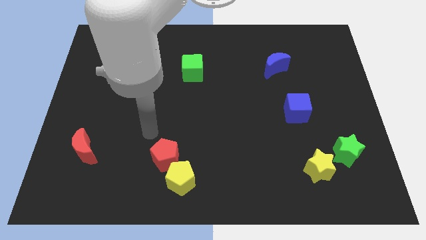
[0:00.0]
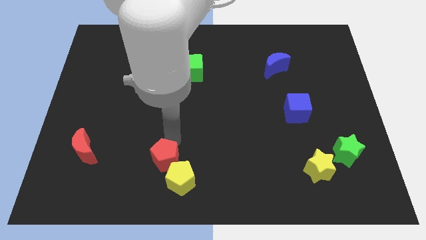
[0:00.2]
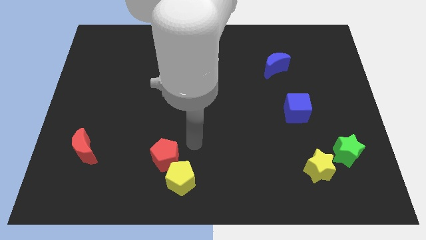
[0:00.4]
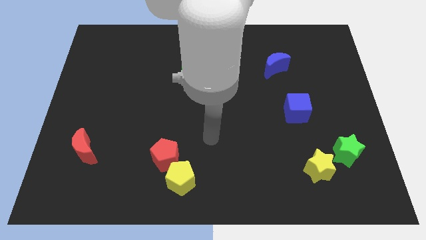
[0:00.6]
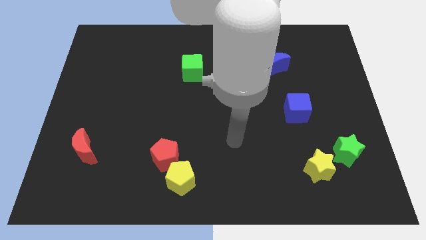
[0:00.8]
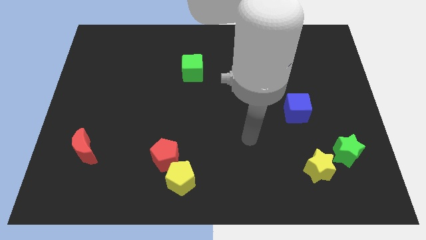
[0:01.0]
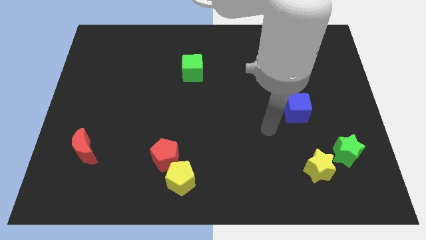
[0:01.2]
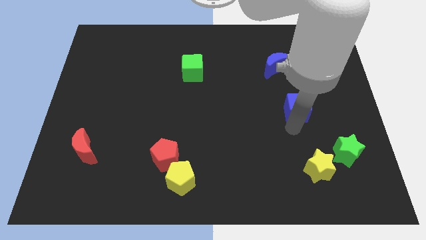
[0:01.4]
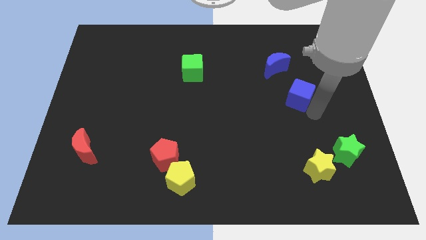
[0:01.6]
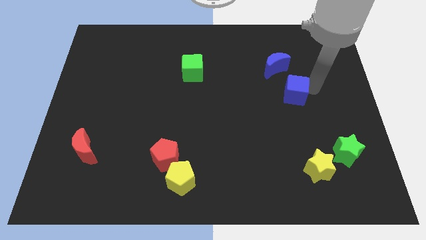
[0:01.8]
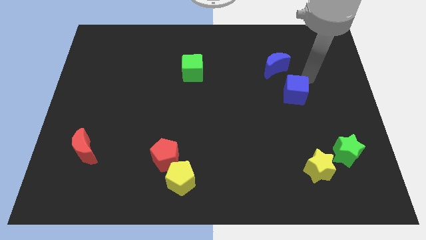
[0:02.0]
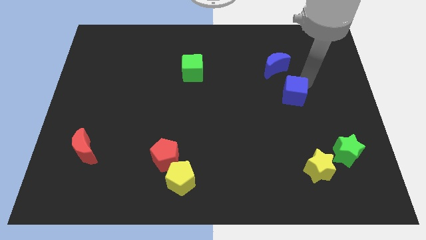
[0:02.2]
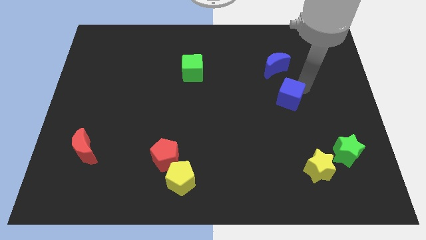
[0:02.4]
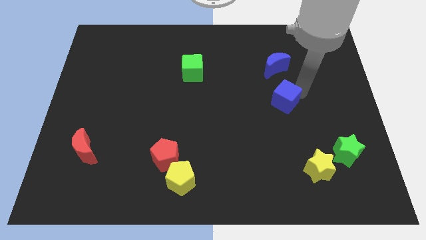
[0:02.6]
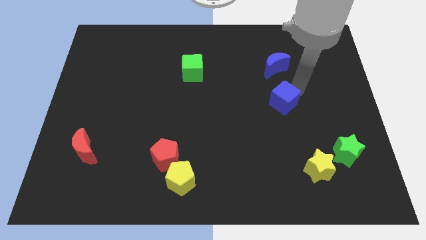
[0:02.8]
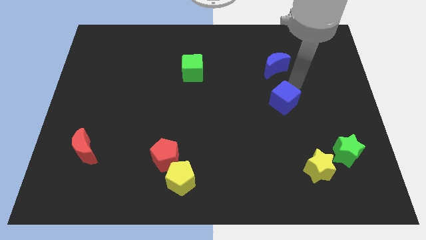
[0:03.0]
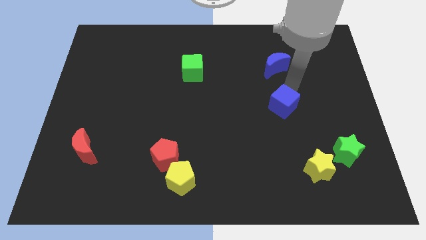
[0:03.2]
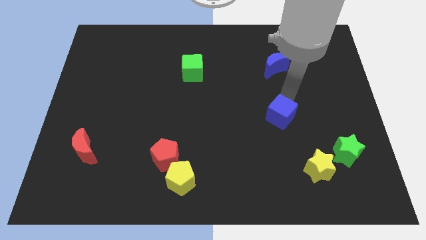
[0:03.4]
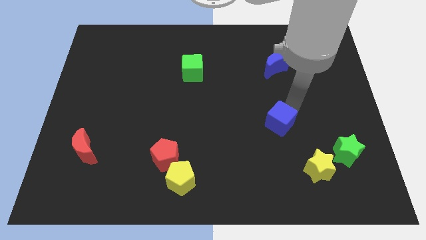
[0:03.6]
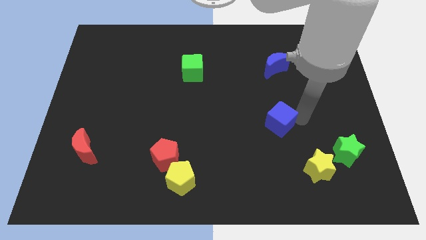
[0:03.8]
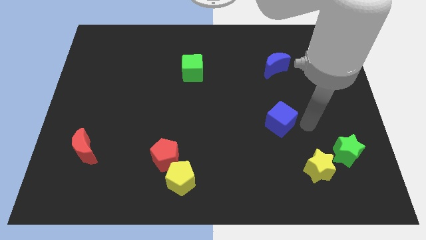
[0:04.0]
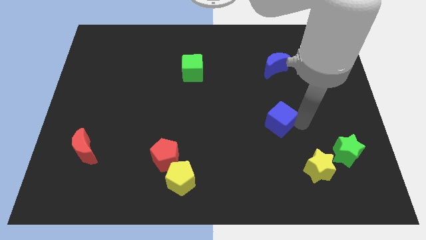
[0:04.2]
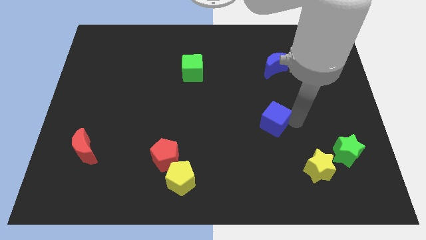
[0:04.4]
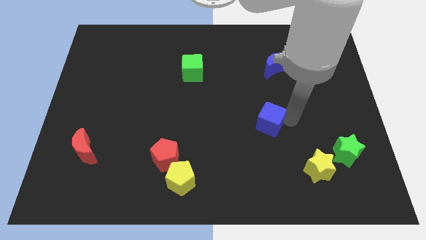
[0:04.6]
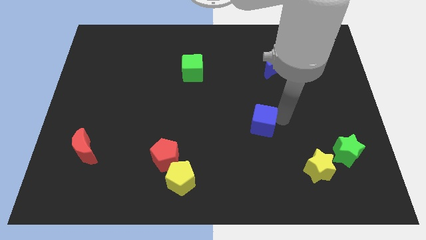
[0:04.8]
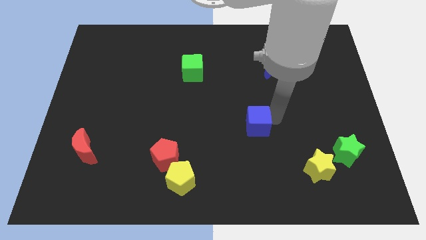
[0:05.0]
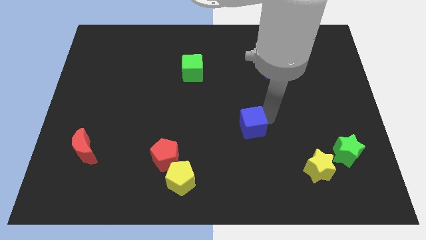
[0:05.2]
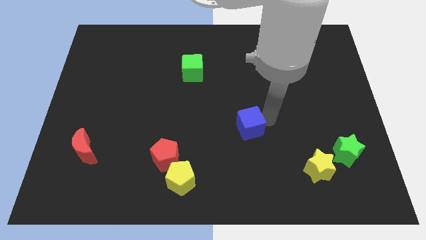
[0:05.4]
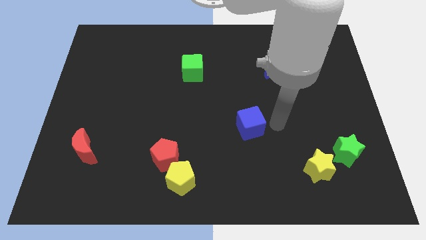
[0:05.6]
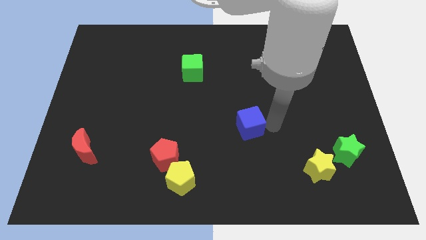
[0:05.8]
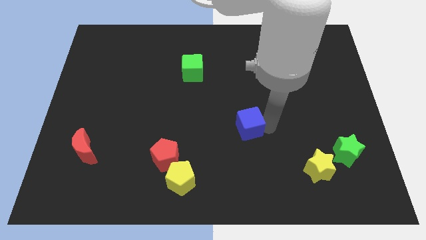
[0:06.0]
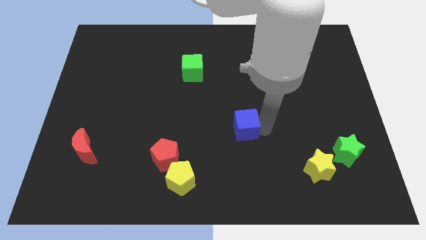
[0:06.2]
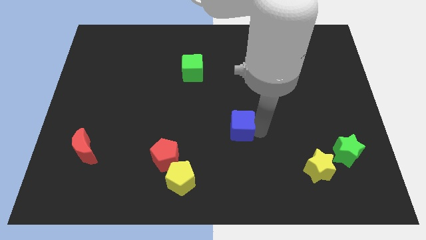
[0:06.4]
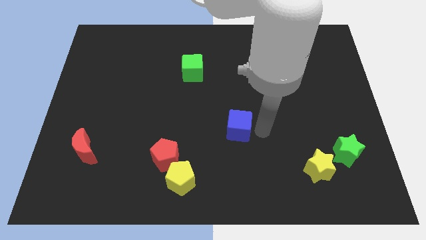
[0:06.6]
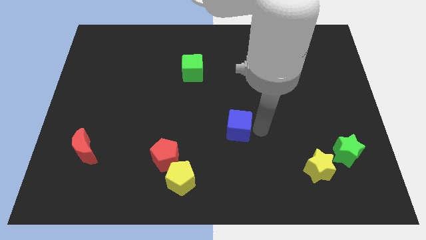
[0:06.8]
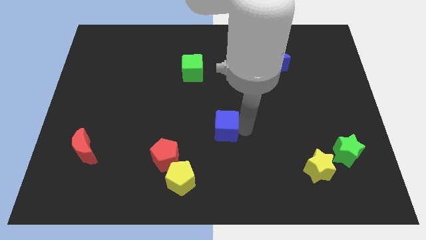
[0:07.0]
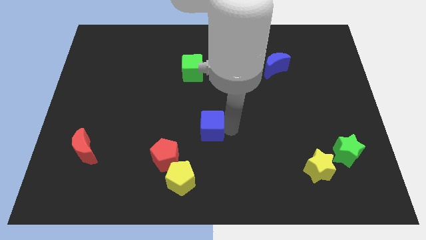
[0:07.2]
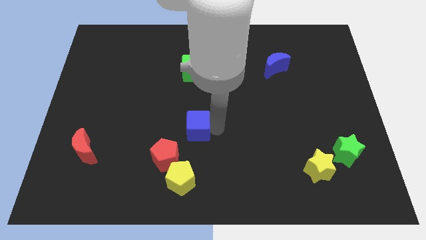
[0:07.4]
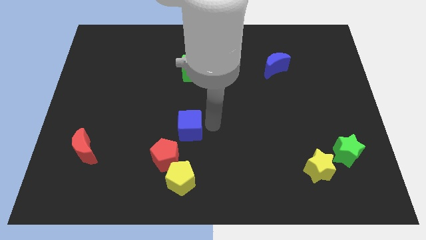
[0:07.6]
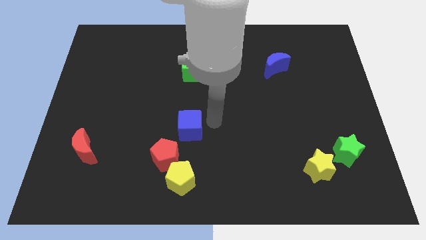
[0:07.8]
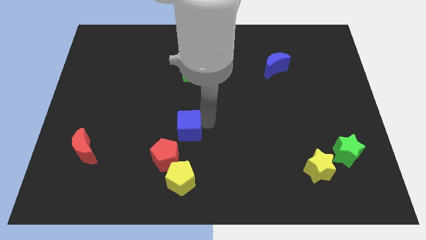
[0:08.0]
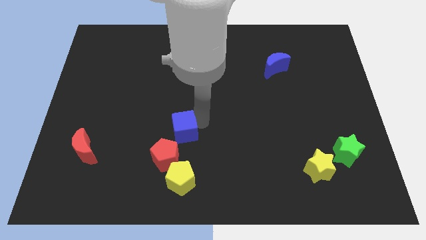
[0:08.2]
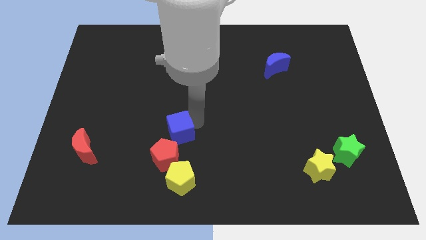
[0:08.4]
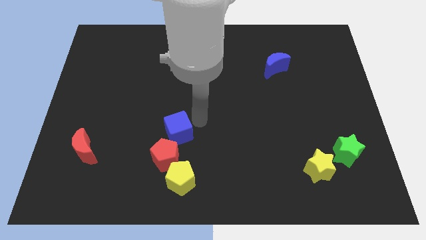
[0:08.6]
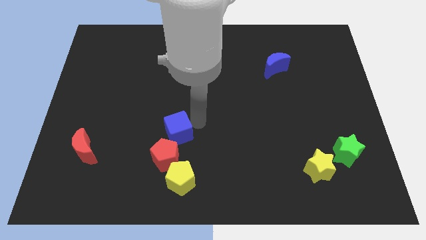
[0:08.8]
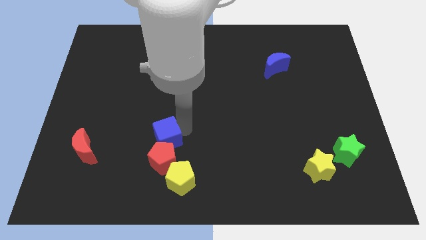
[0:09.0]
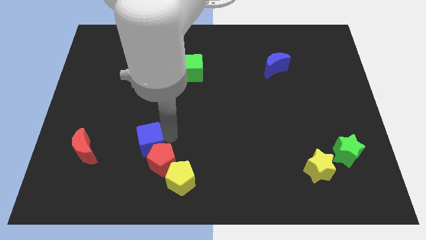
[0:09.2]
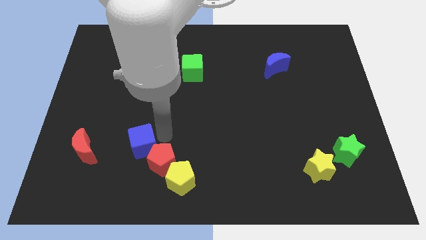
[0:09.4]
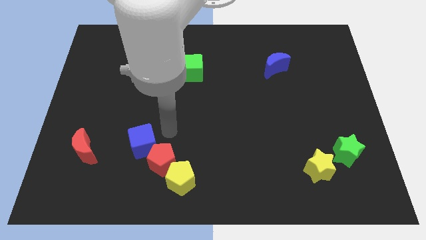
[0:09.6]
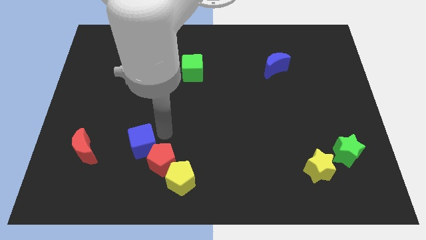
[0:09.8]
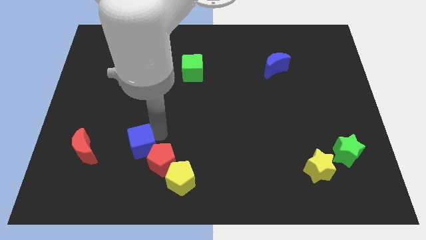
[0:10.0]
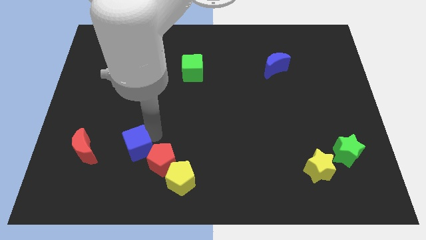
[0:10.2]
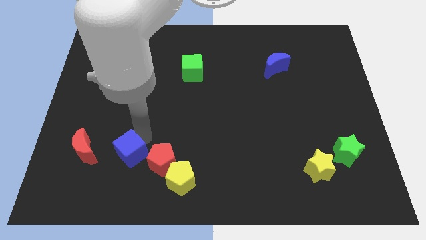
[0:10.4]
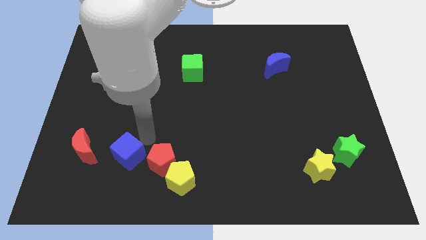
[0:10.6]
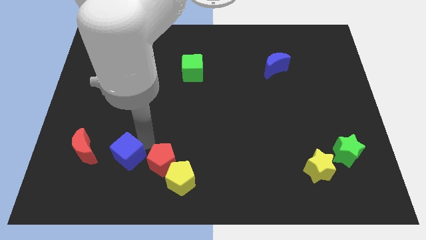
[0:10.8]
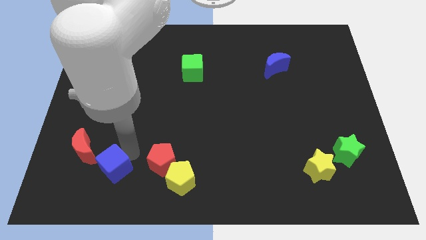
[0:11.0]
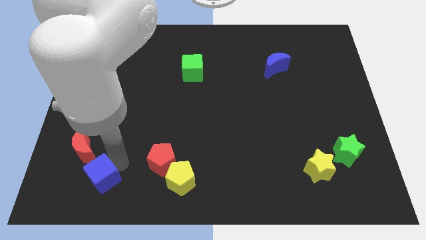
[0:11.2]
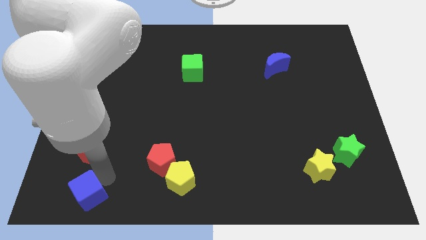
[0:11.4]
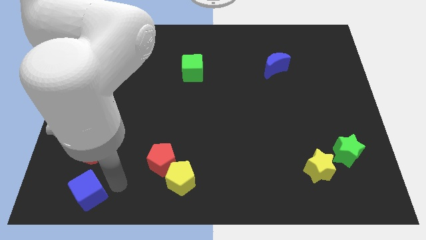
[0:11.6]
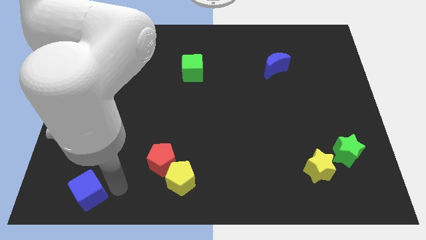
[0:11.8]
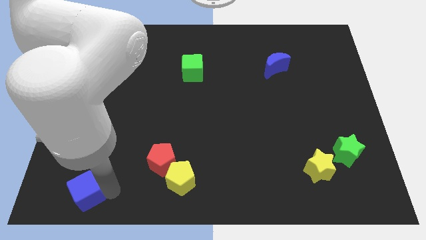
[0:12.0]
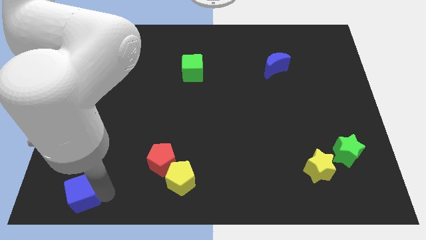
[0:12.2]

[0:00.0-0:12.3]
move the blue cube to the lower left corner
